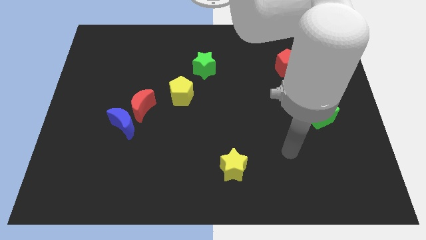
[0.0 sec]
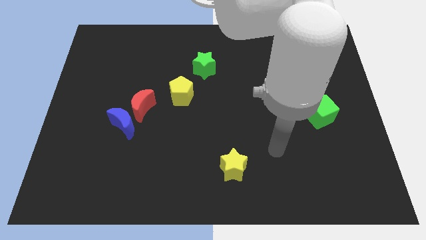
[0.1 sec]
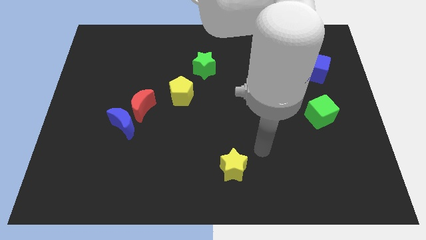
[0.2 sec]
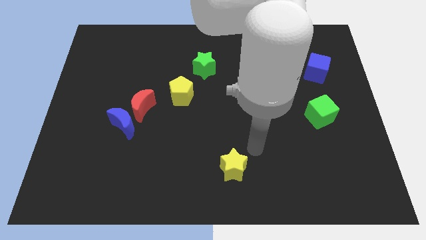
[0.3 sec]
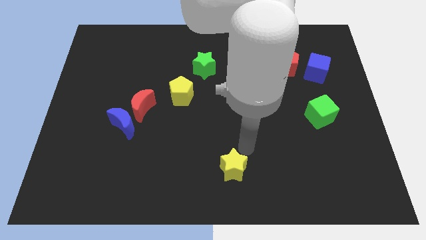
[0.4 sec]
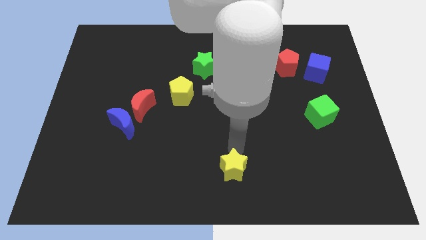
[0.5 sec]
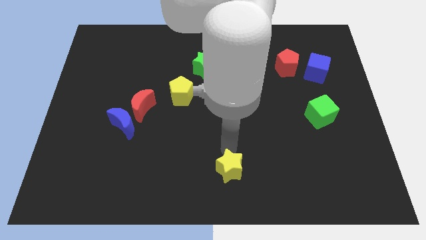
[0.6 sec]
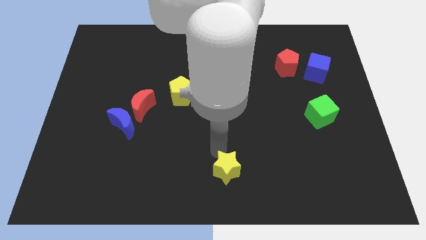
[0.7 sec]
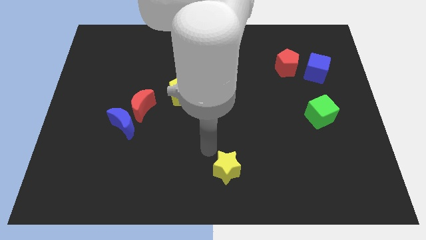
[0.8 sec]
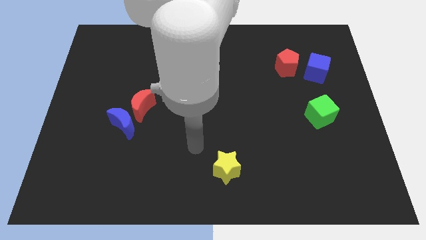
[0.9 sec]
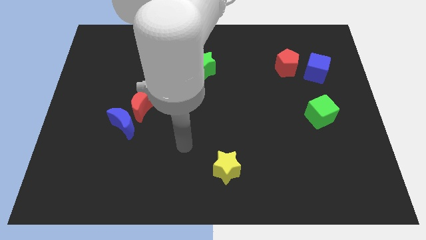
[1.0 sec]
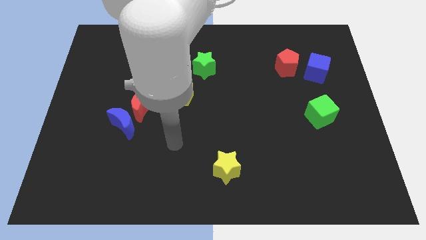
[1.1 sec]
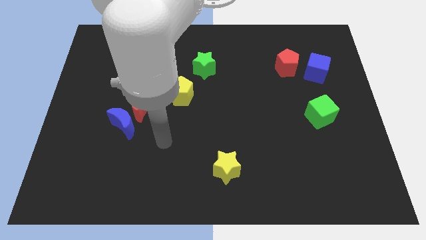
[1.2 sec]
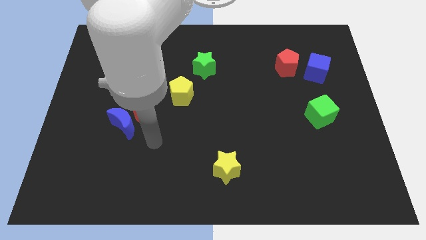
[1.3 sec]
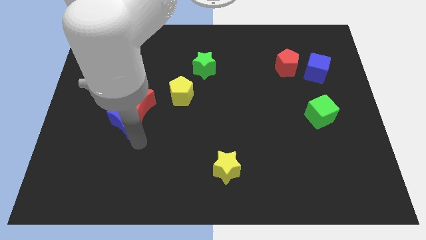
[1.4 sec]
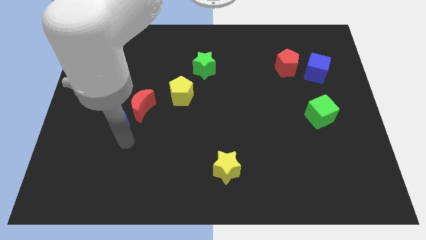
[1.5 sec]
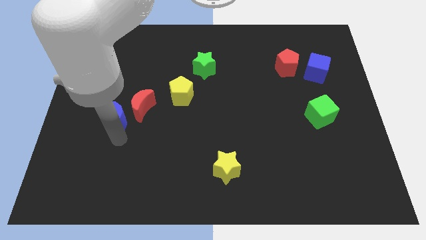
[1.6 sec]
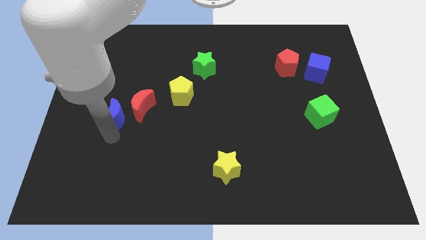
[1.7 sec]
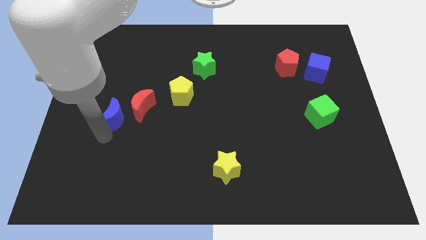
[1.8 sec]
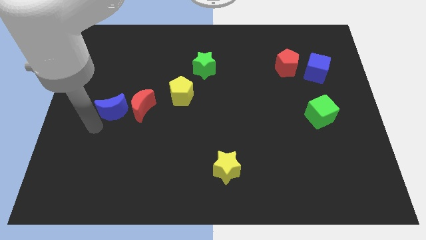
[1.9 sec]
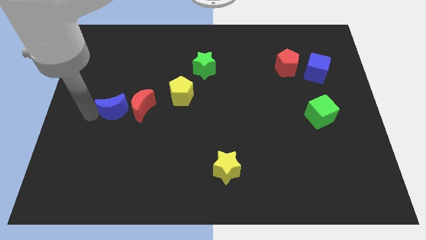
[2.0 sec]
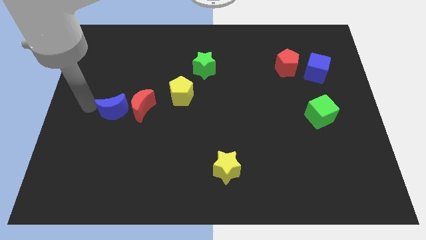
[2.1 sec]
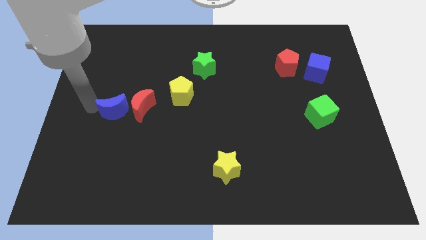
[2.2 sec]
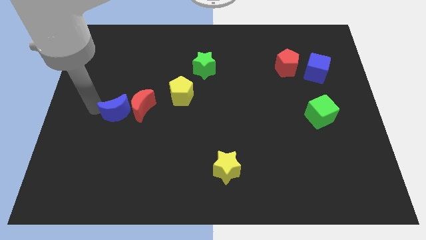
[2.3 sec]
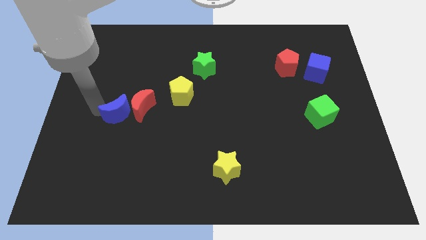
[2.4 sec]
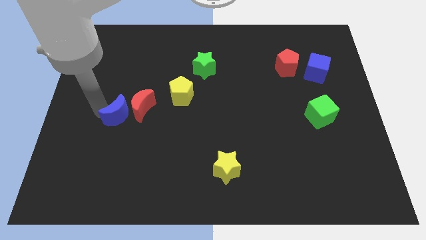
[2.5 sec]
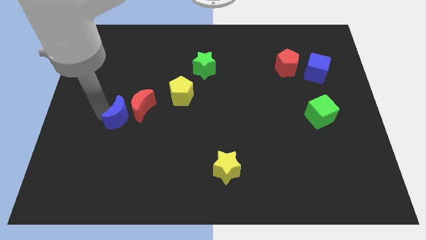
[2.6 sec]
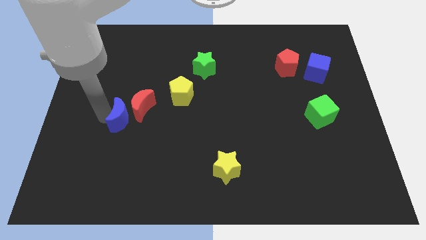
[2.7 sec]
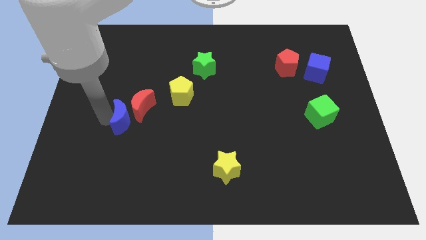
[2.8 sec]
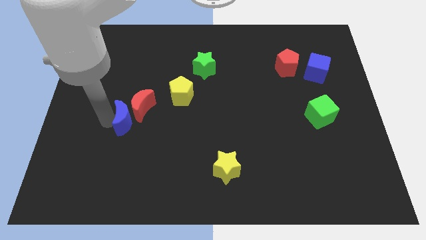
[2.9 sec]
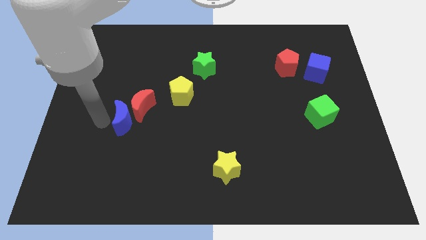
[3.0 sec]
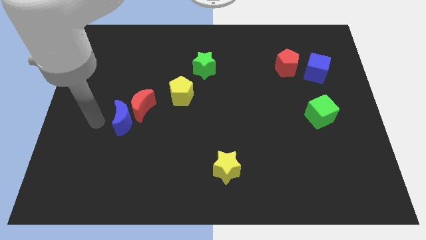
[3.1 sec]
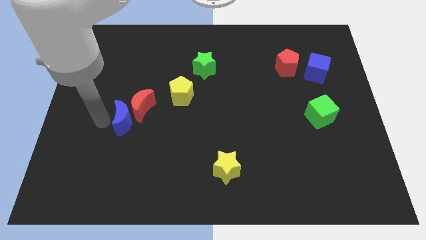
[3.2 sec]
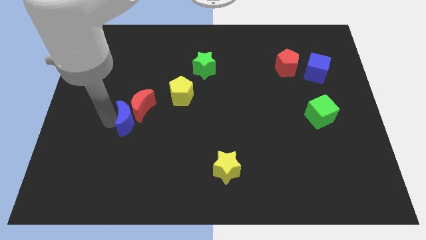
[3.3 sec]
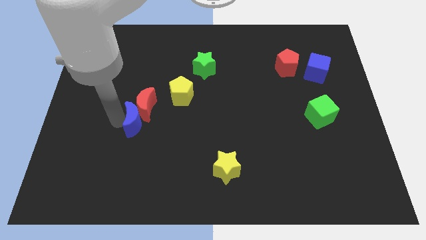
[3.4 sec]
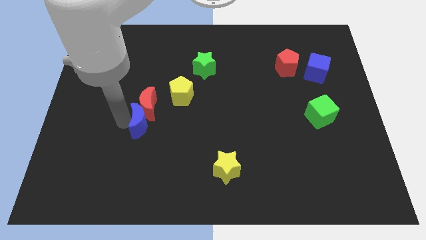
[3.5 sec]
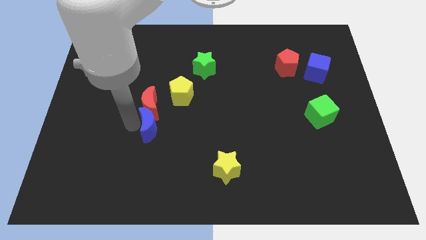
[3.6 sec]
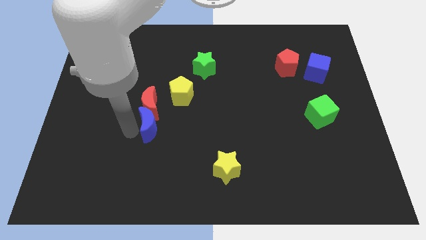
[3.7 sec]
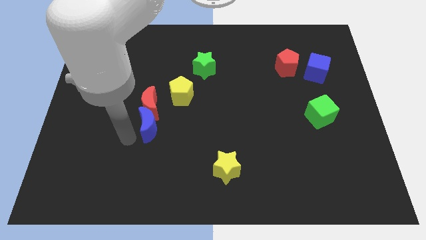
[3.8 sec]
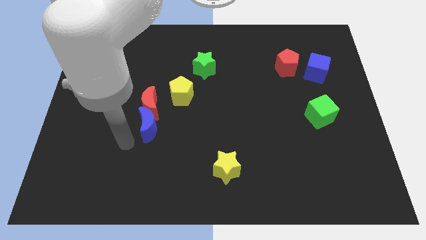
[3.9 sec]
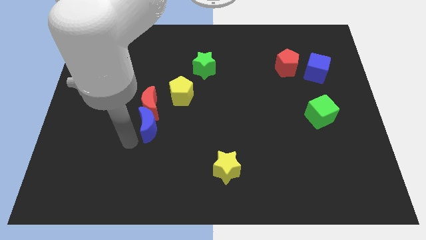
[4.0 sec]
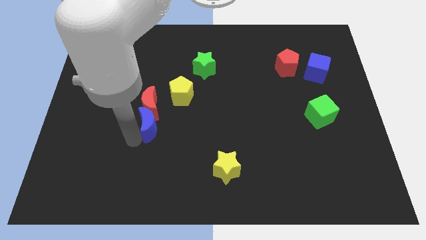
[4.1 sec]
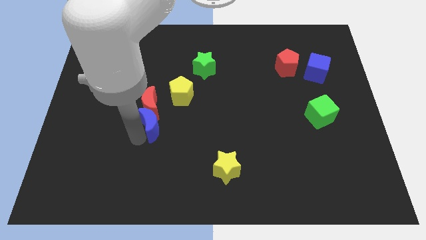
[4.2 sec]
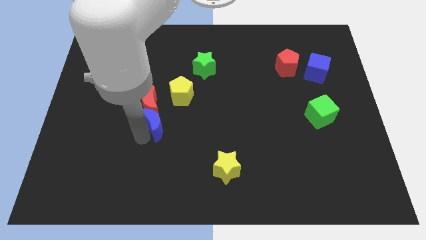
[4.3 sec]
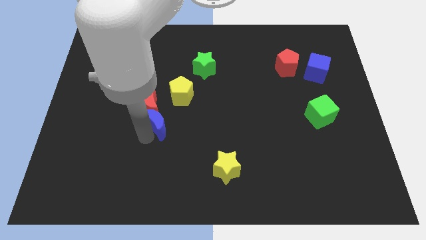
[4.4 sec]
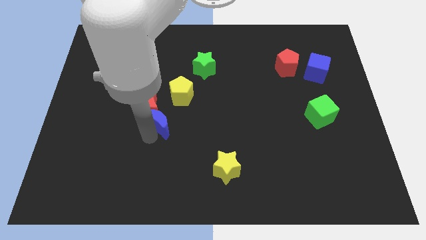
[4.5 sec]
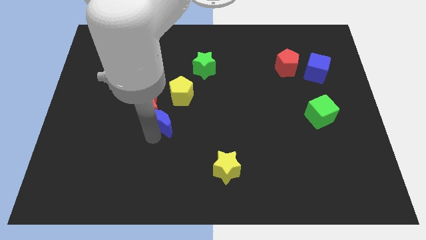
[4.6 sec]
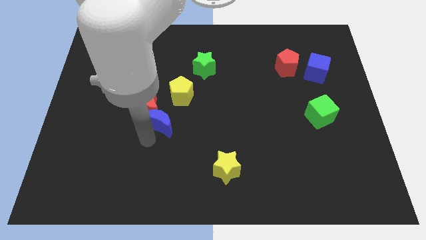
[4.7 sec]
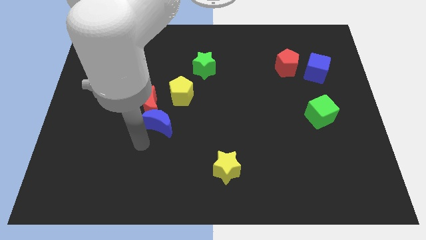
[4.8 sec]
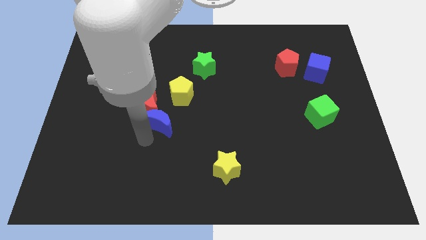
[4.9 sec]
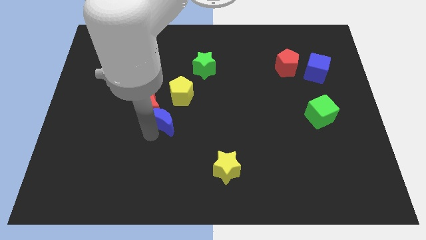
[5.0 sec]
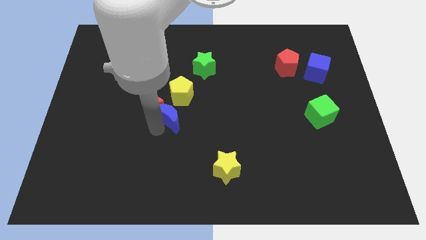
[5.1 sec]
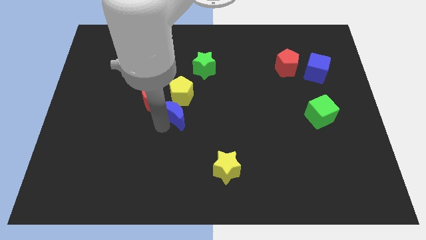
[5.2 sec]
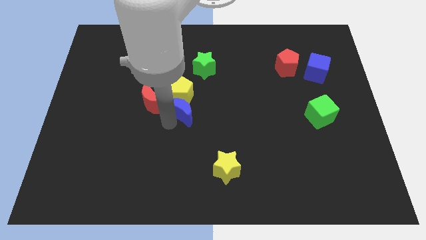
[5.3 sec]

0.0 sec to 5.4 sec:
move the blue moon to the yellow pentagon

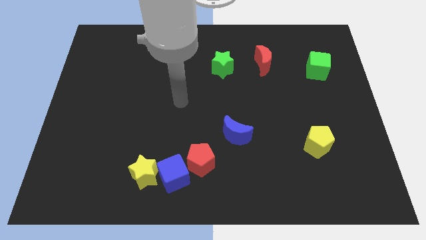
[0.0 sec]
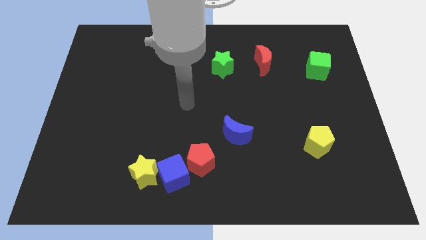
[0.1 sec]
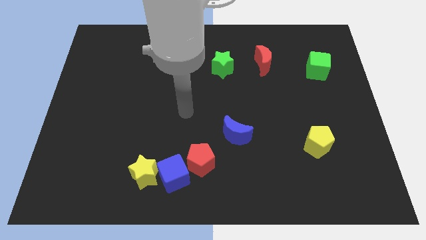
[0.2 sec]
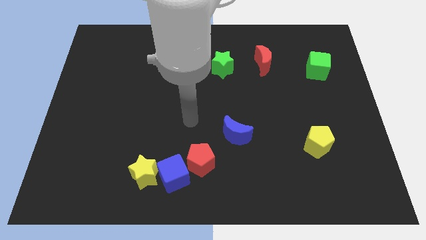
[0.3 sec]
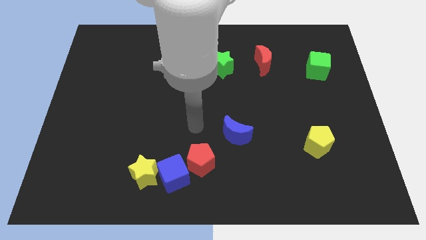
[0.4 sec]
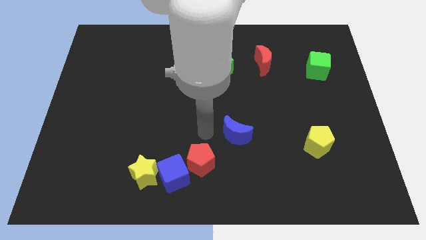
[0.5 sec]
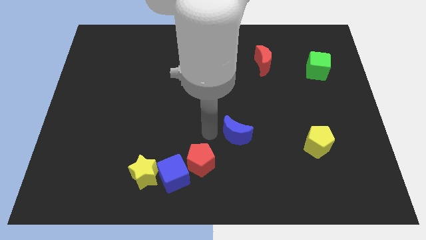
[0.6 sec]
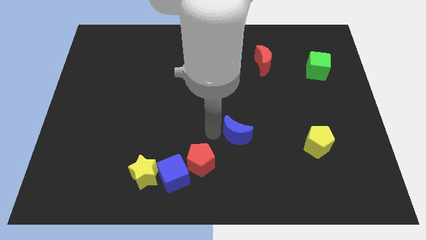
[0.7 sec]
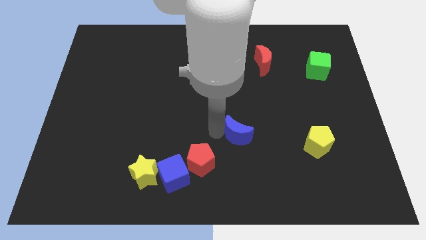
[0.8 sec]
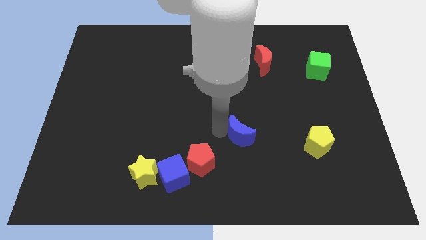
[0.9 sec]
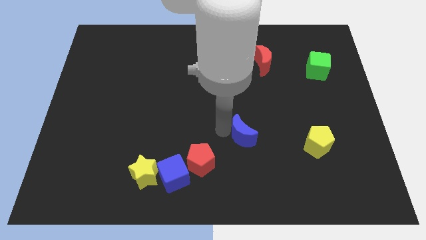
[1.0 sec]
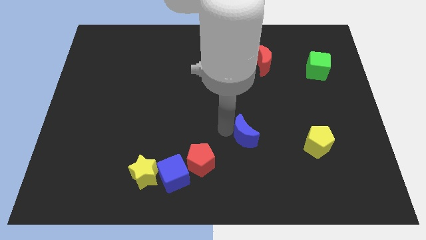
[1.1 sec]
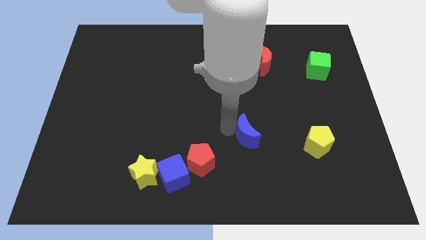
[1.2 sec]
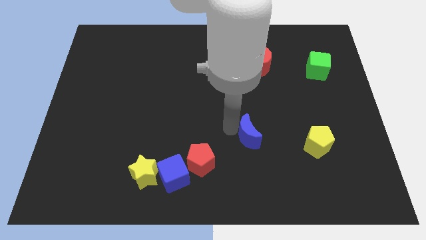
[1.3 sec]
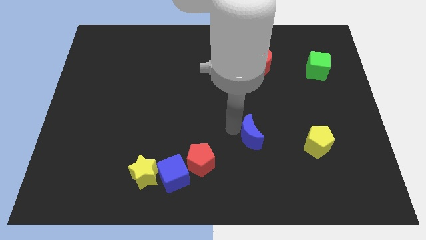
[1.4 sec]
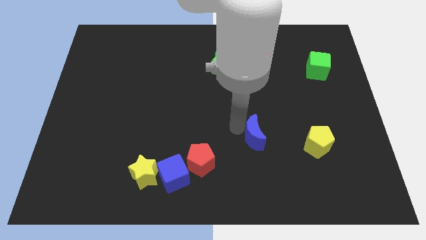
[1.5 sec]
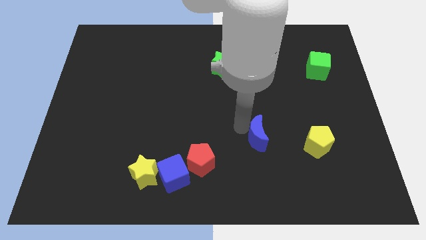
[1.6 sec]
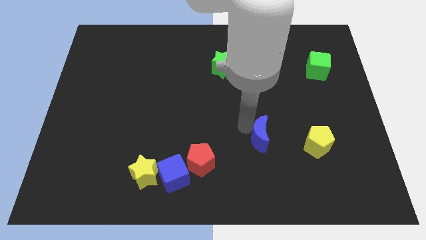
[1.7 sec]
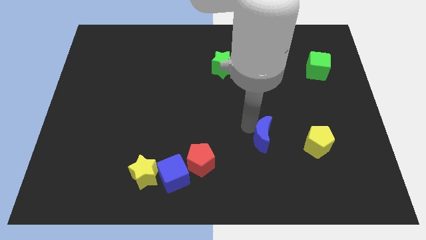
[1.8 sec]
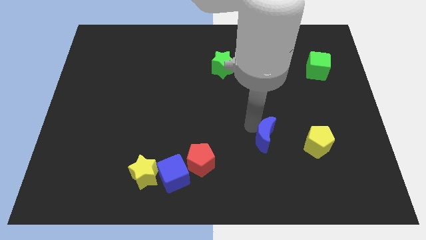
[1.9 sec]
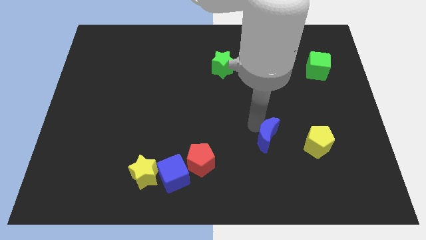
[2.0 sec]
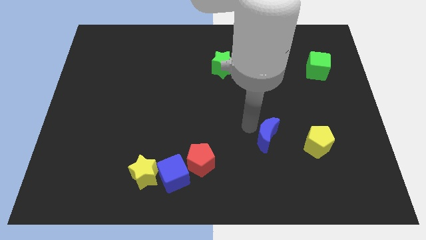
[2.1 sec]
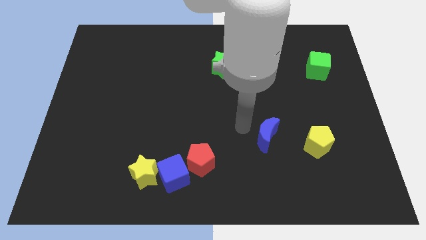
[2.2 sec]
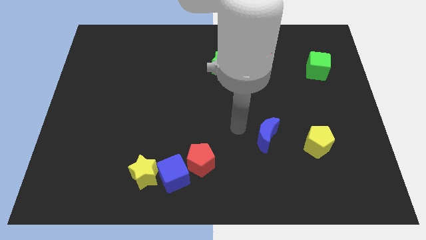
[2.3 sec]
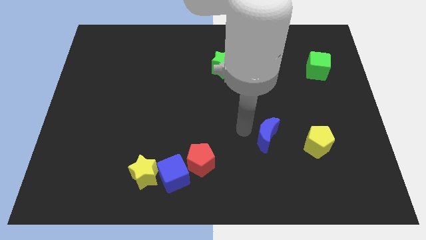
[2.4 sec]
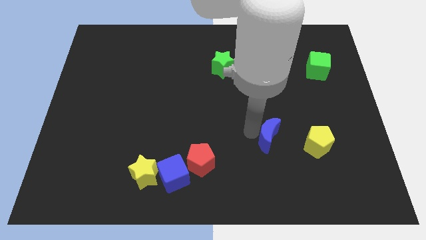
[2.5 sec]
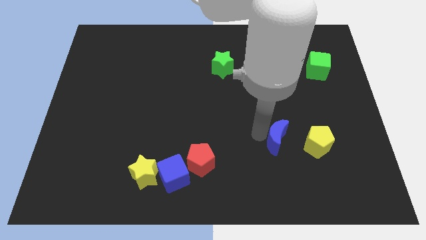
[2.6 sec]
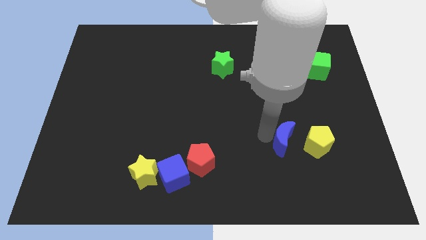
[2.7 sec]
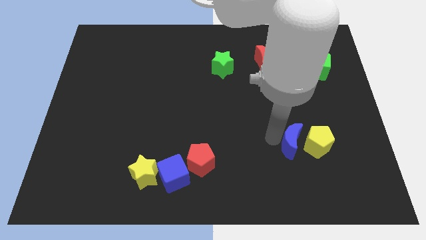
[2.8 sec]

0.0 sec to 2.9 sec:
push the blue moon towards the yellow pentagon
